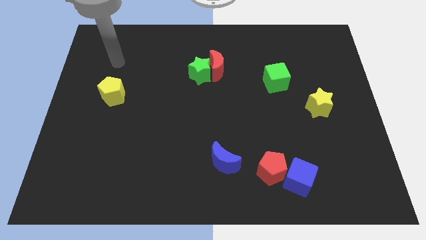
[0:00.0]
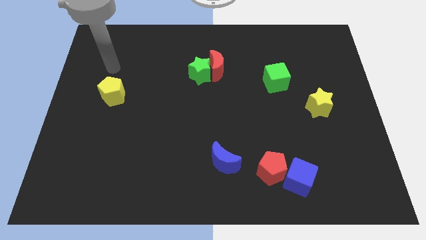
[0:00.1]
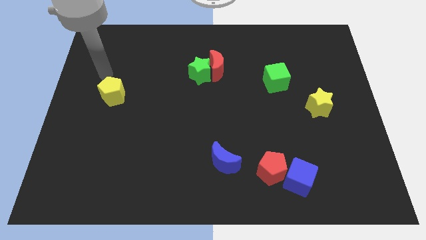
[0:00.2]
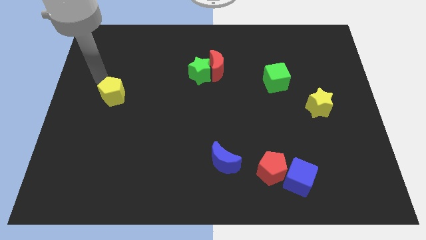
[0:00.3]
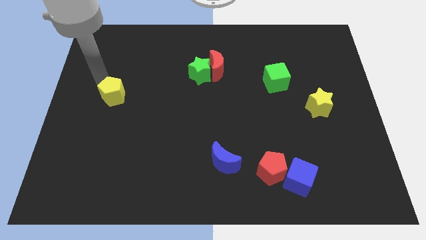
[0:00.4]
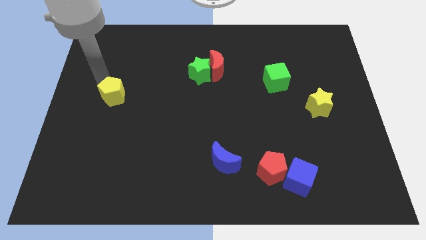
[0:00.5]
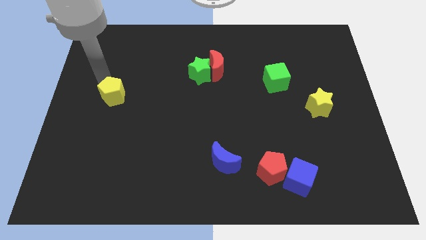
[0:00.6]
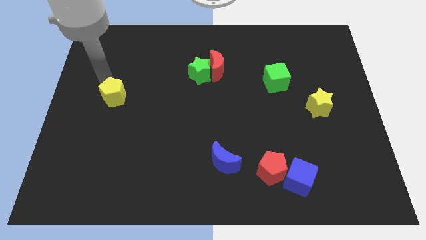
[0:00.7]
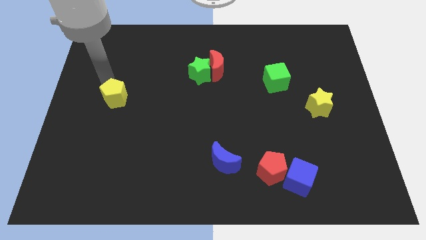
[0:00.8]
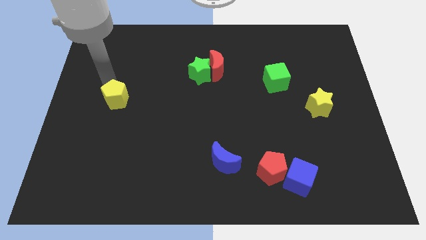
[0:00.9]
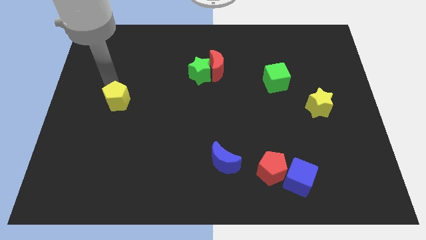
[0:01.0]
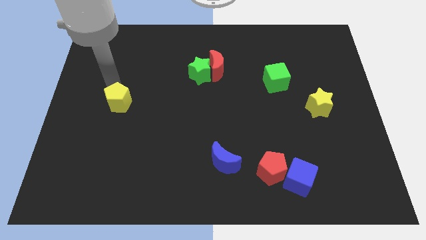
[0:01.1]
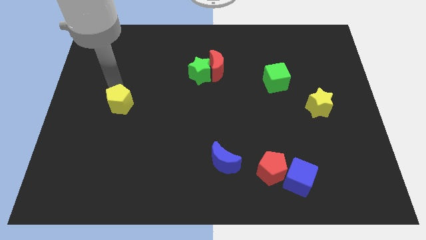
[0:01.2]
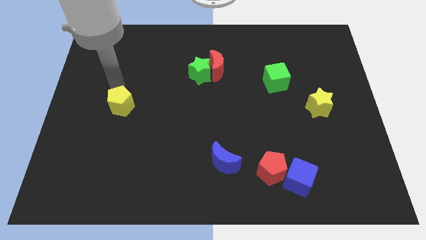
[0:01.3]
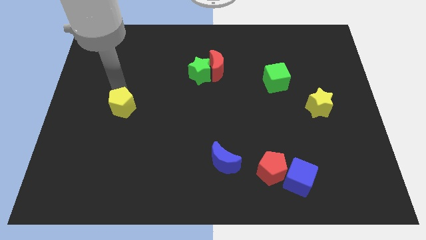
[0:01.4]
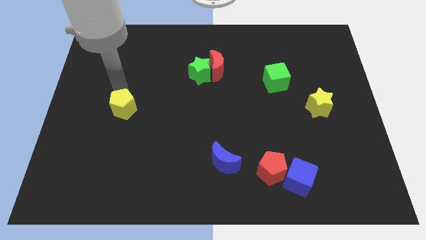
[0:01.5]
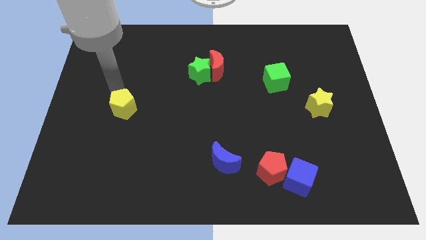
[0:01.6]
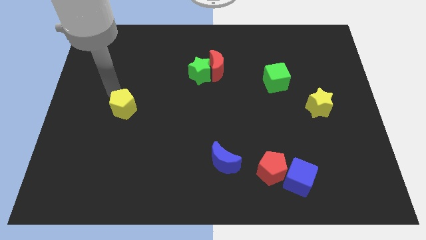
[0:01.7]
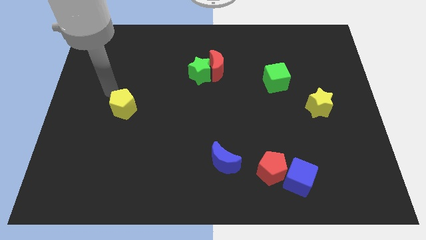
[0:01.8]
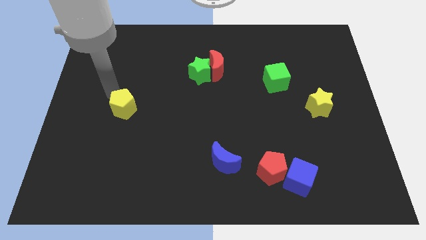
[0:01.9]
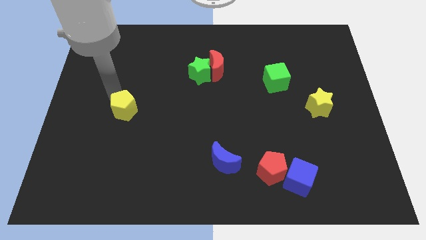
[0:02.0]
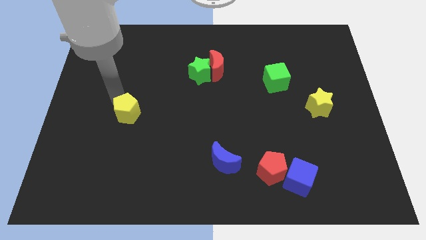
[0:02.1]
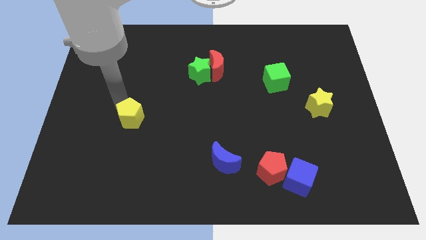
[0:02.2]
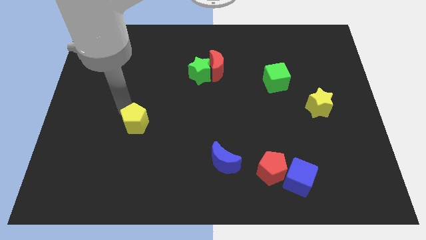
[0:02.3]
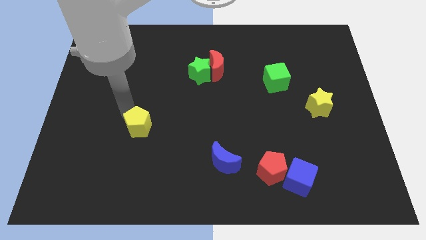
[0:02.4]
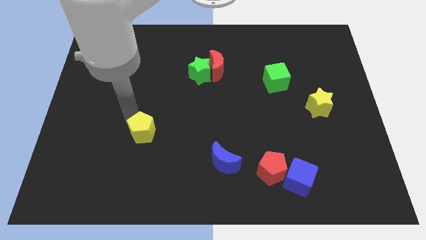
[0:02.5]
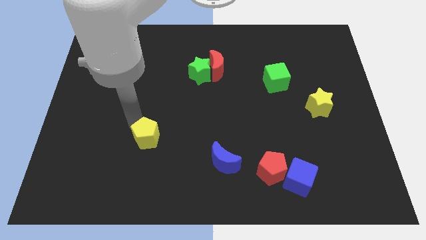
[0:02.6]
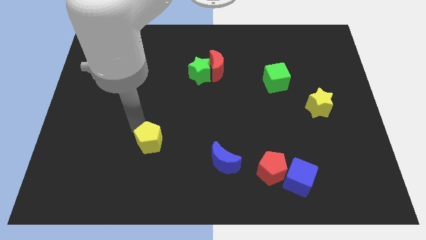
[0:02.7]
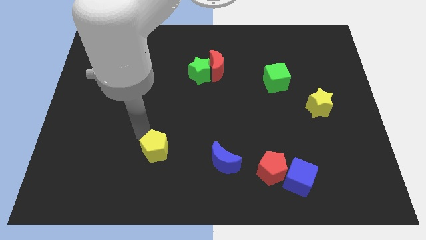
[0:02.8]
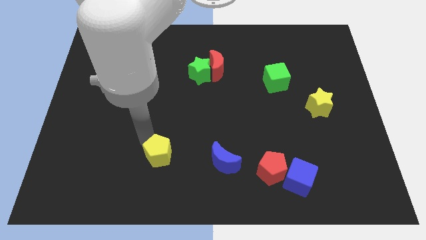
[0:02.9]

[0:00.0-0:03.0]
slide the yellow pentagon down and to the right

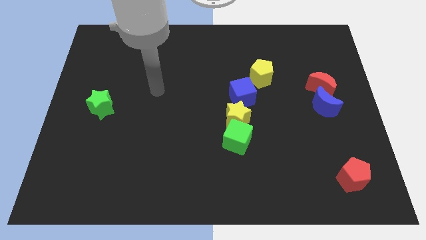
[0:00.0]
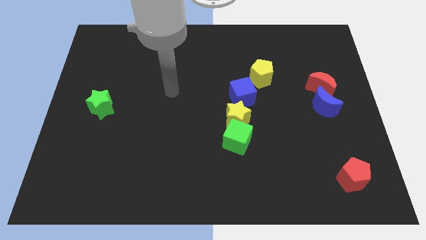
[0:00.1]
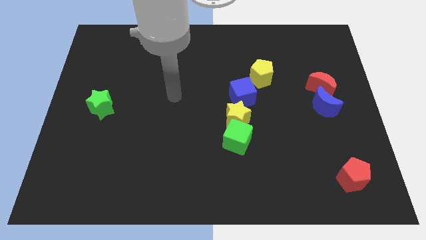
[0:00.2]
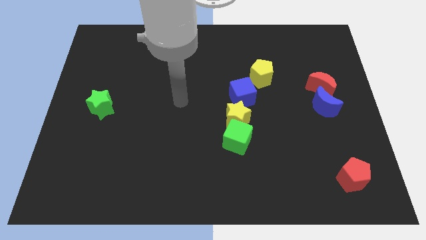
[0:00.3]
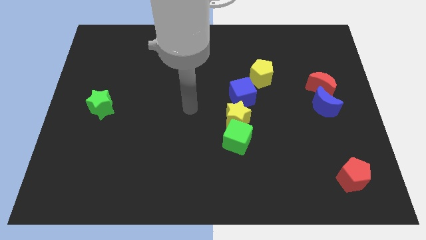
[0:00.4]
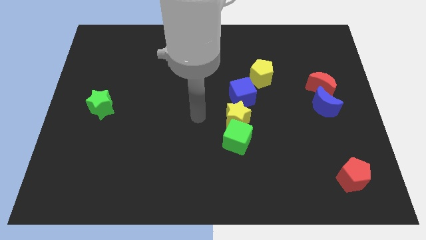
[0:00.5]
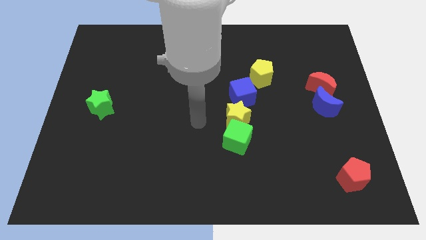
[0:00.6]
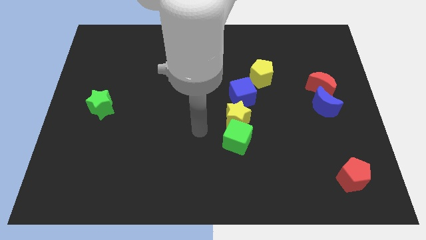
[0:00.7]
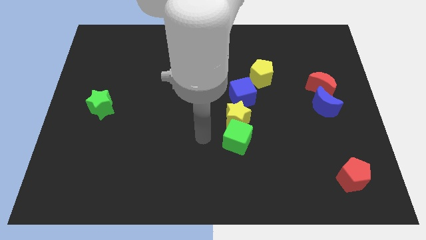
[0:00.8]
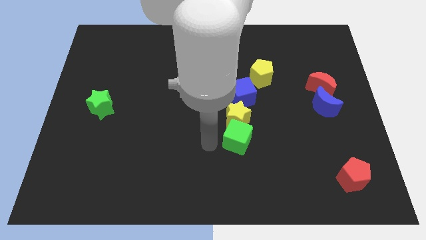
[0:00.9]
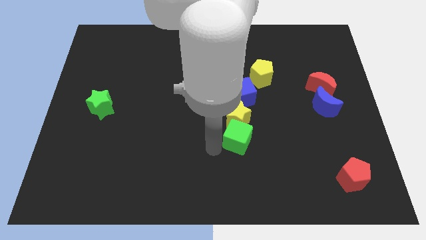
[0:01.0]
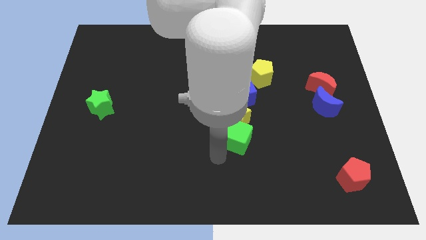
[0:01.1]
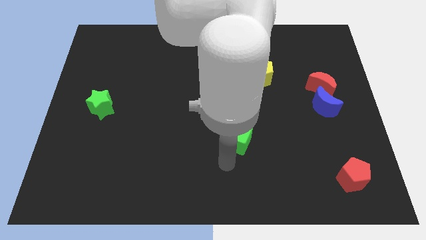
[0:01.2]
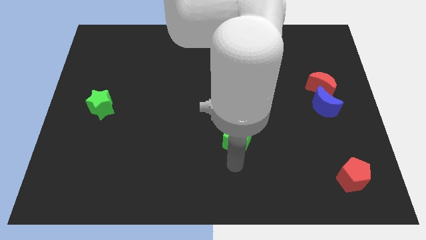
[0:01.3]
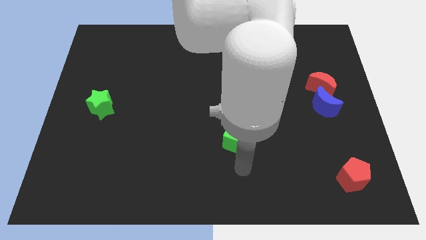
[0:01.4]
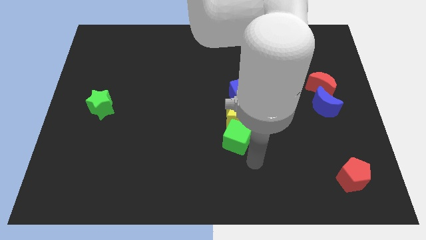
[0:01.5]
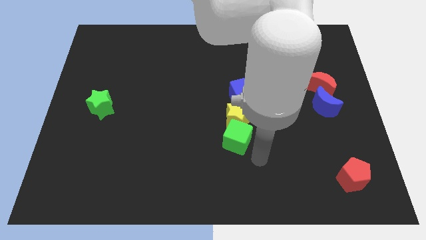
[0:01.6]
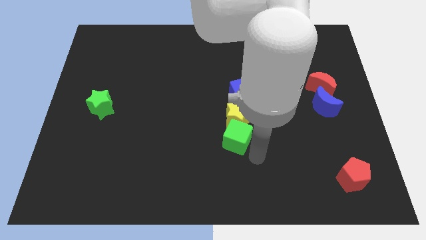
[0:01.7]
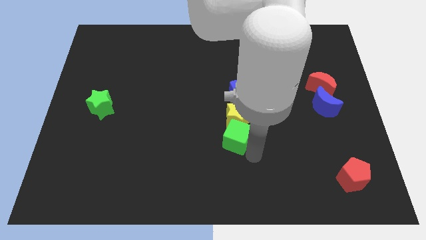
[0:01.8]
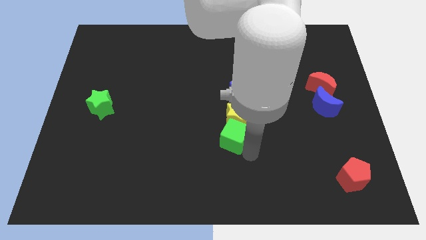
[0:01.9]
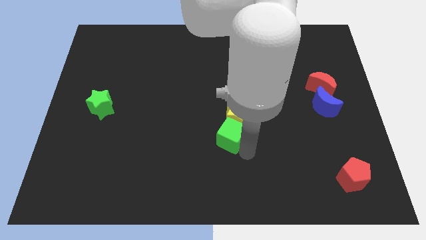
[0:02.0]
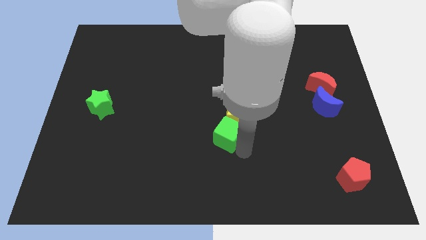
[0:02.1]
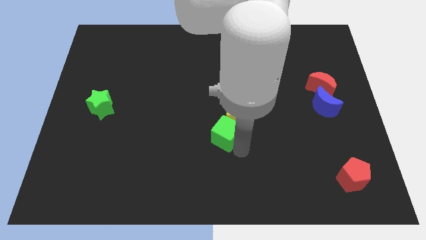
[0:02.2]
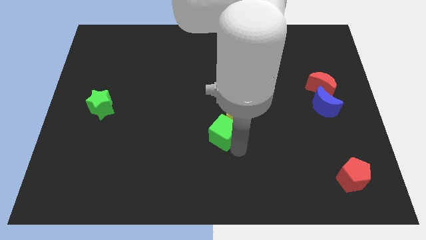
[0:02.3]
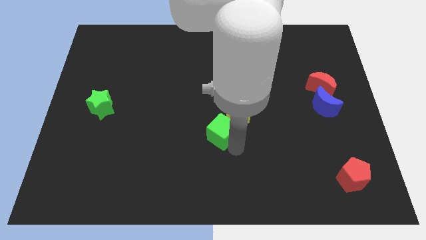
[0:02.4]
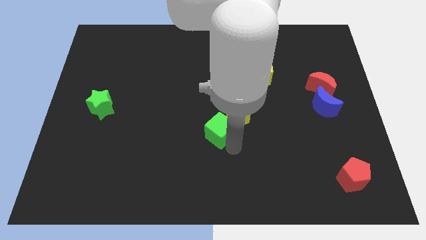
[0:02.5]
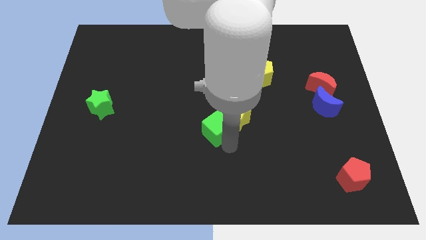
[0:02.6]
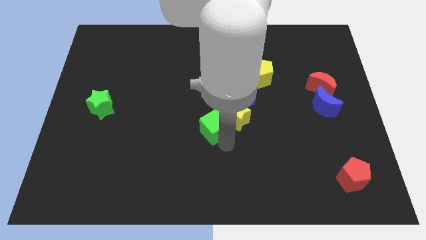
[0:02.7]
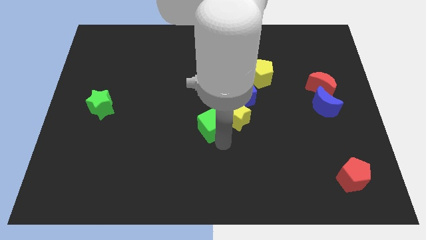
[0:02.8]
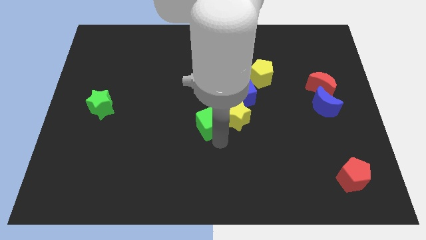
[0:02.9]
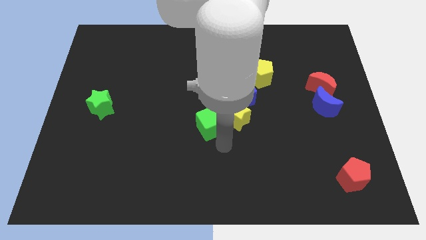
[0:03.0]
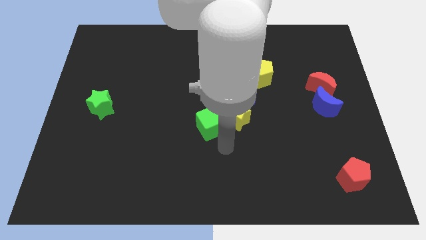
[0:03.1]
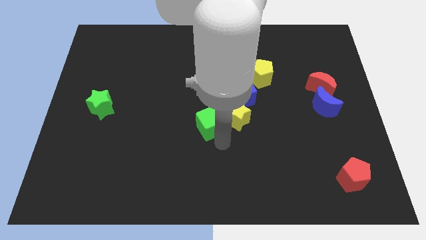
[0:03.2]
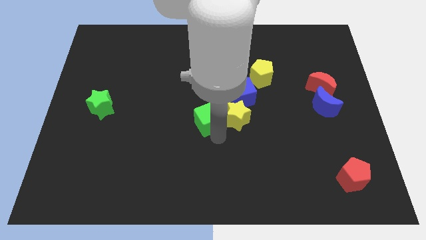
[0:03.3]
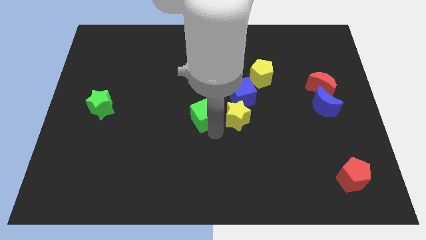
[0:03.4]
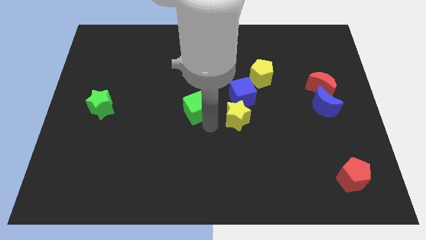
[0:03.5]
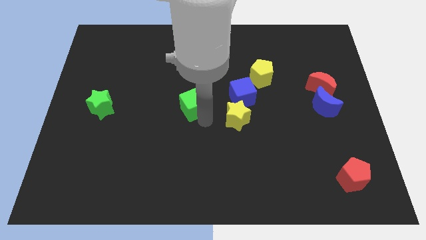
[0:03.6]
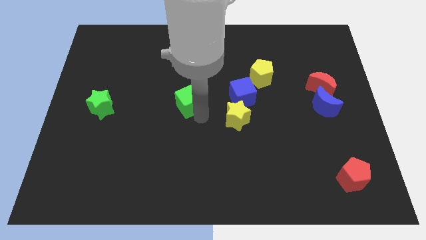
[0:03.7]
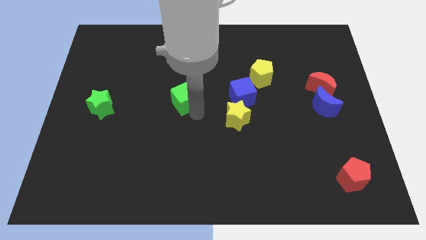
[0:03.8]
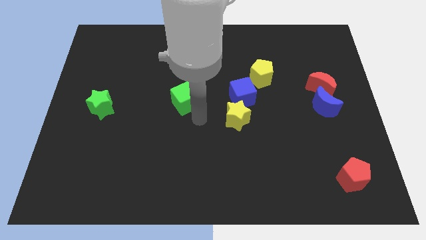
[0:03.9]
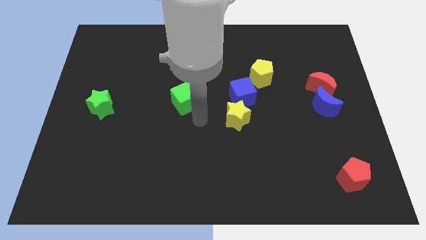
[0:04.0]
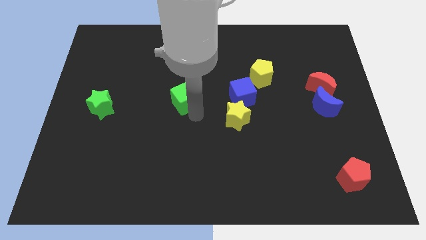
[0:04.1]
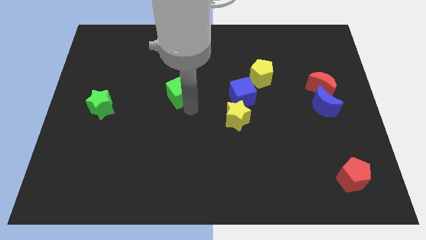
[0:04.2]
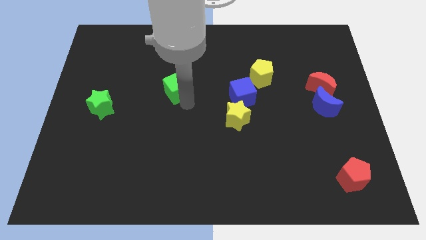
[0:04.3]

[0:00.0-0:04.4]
slide the green cube diagonally upwards and to the left

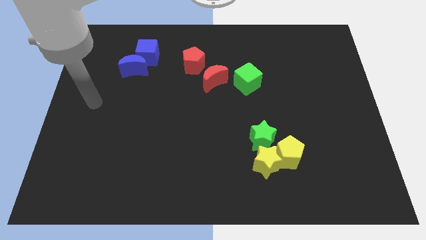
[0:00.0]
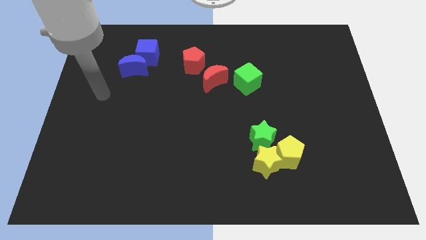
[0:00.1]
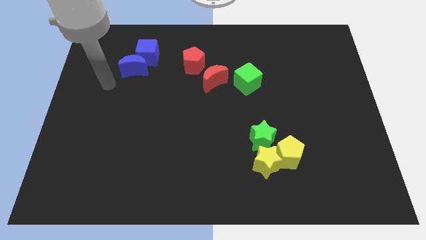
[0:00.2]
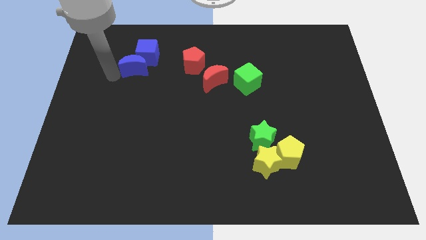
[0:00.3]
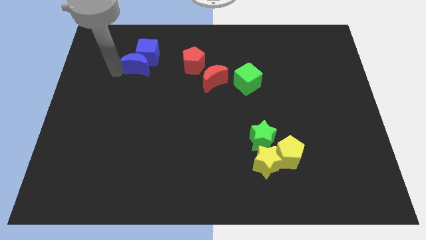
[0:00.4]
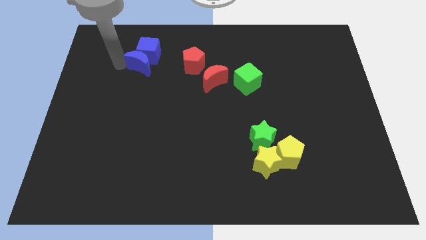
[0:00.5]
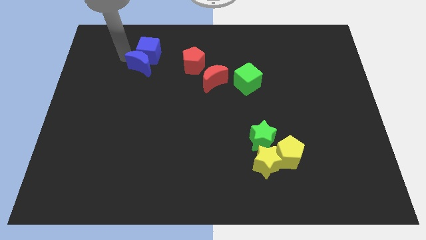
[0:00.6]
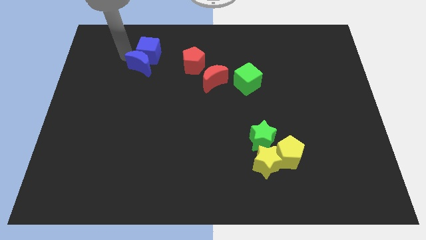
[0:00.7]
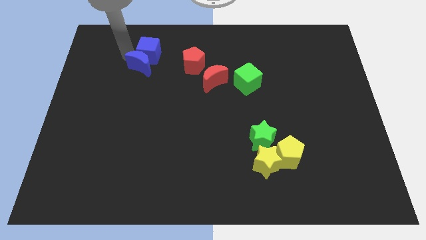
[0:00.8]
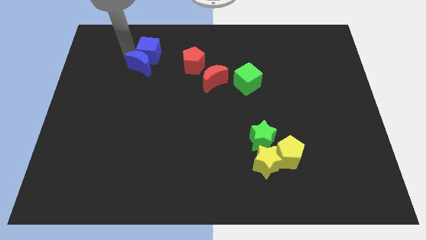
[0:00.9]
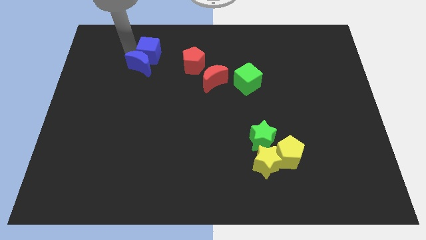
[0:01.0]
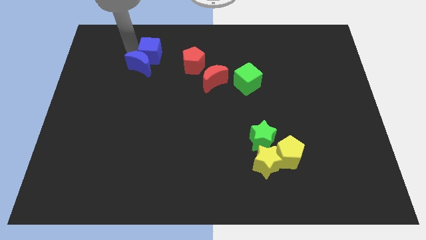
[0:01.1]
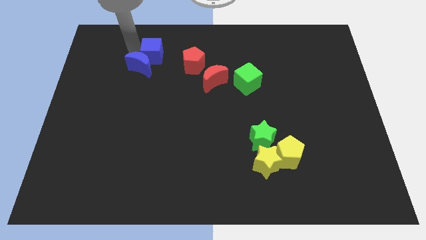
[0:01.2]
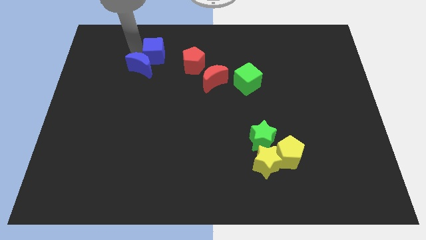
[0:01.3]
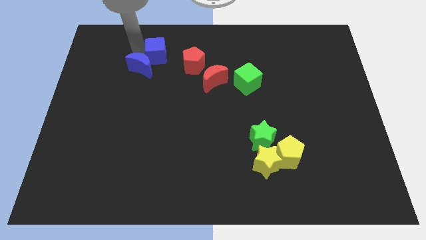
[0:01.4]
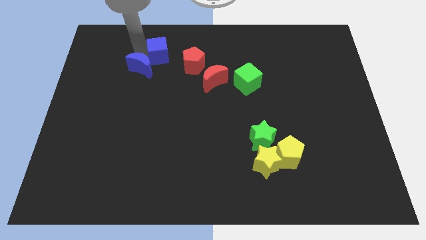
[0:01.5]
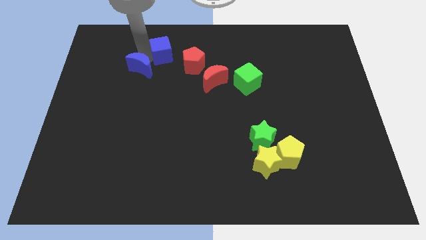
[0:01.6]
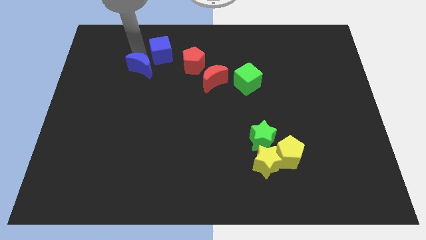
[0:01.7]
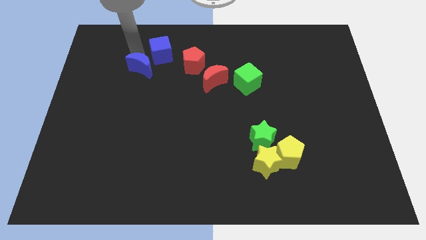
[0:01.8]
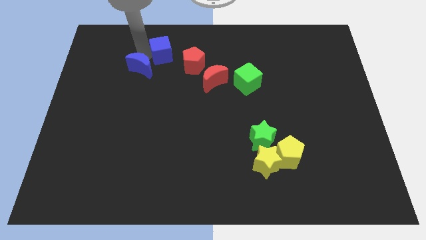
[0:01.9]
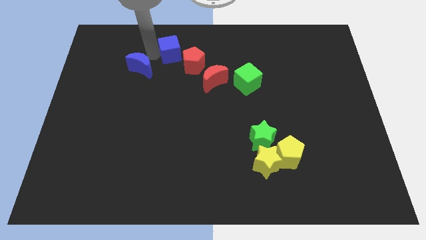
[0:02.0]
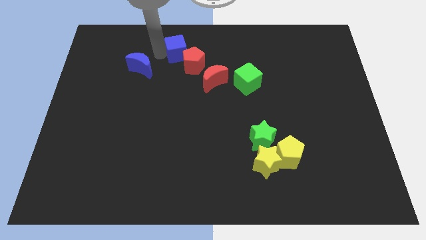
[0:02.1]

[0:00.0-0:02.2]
move the blue cube a little bit right
